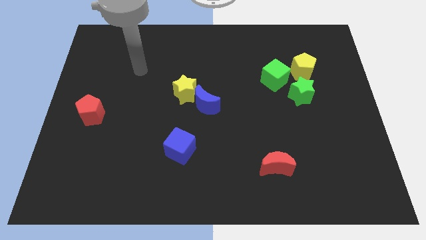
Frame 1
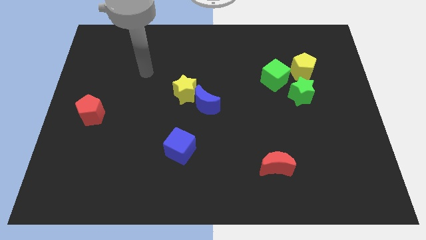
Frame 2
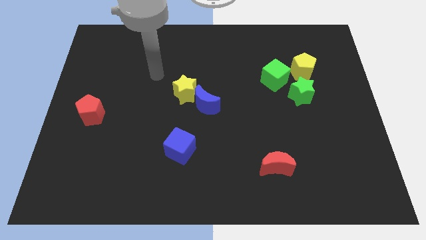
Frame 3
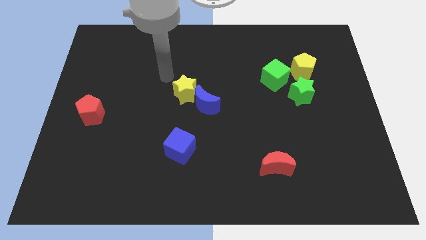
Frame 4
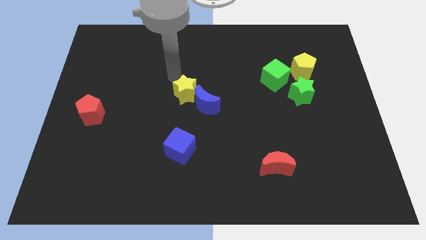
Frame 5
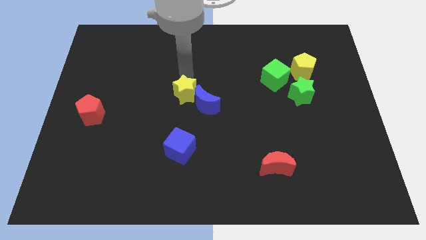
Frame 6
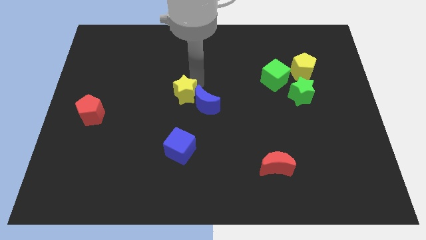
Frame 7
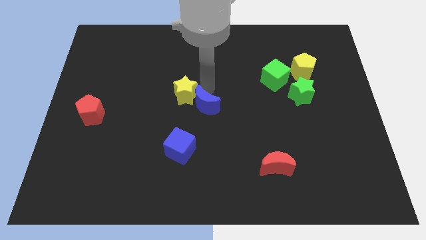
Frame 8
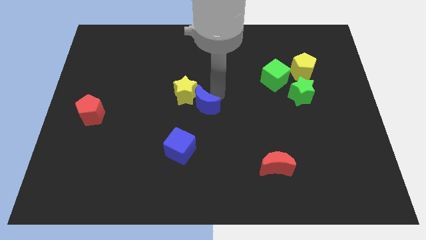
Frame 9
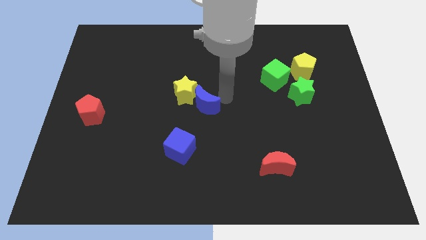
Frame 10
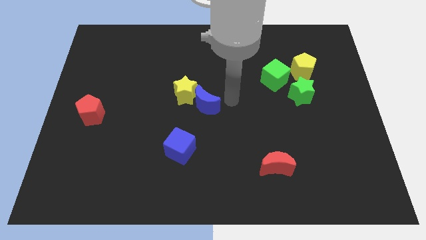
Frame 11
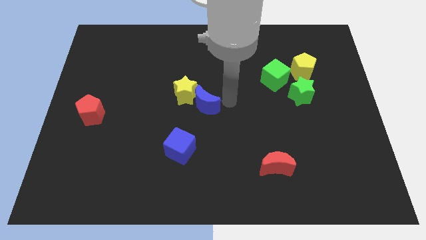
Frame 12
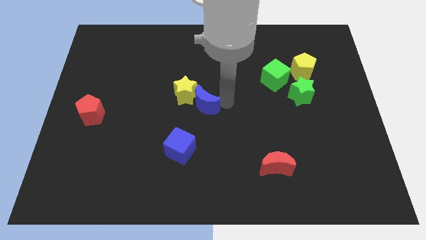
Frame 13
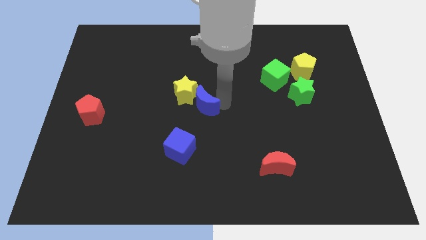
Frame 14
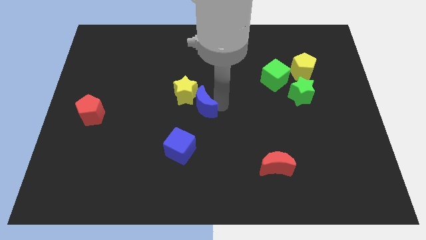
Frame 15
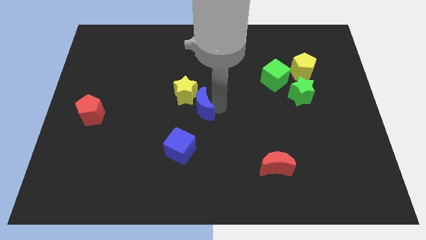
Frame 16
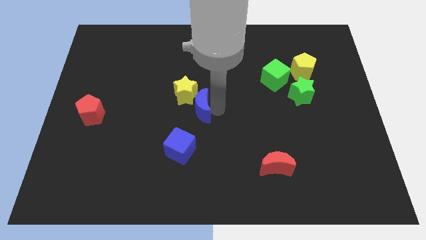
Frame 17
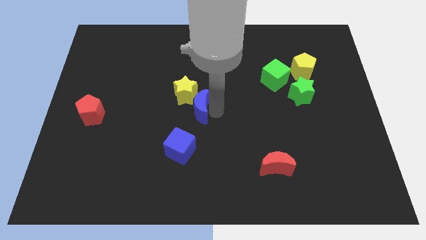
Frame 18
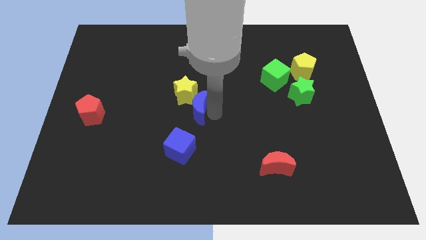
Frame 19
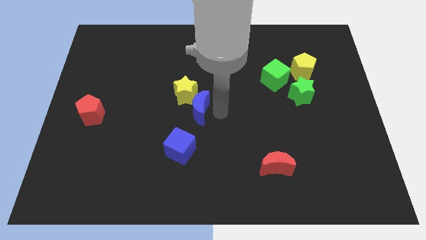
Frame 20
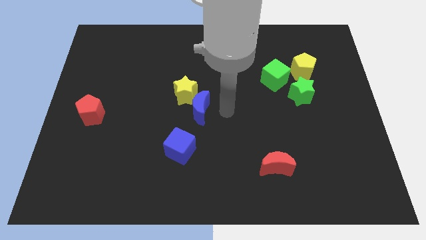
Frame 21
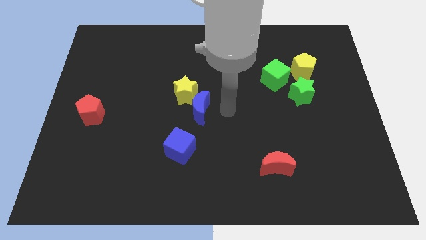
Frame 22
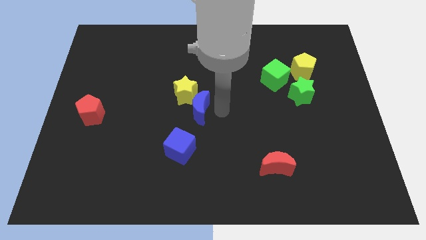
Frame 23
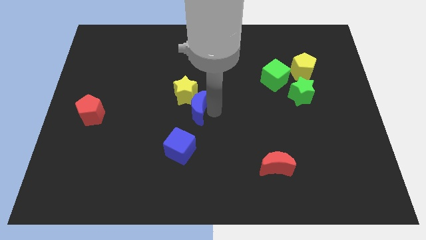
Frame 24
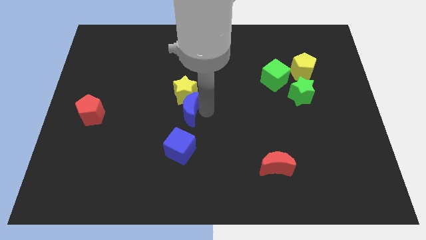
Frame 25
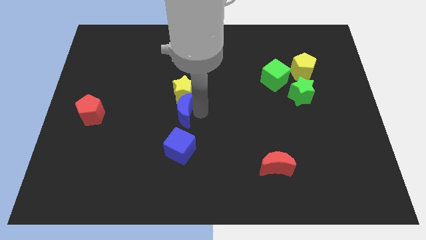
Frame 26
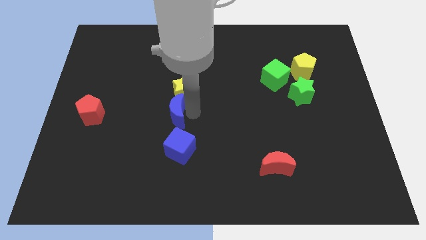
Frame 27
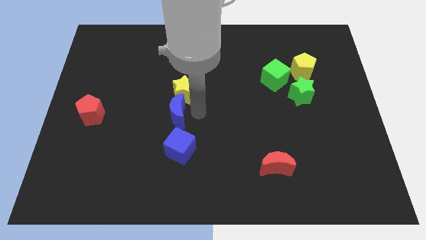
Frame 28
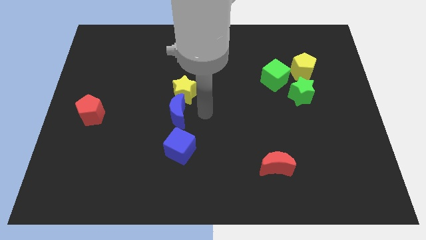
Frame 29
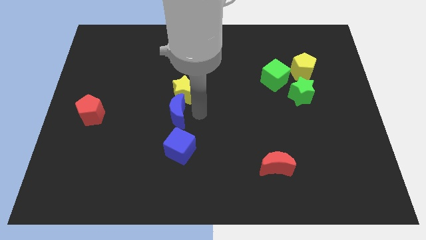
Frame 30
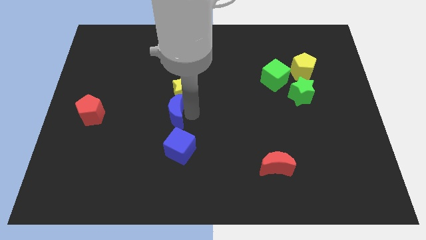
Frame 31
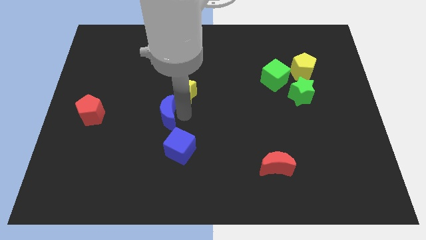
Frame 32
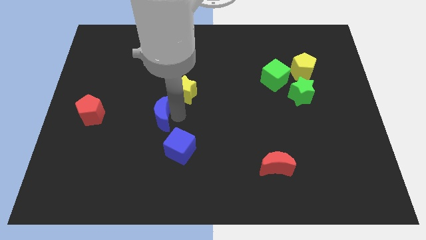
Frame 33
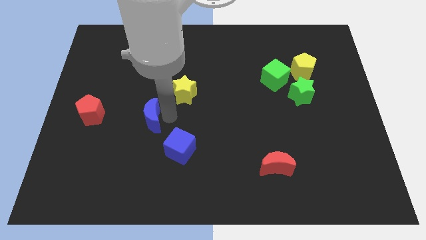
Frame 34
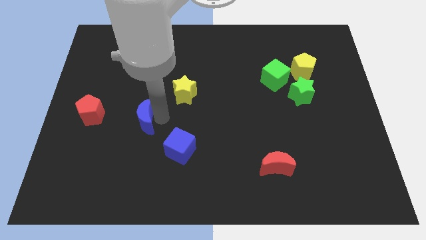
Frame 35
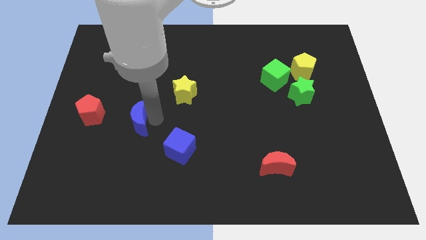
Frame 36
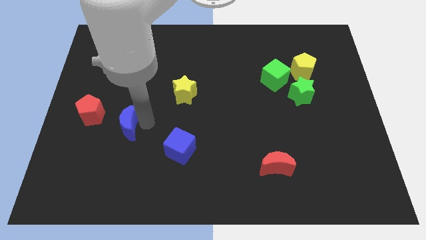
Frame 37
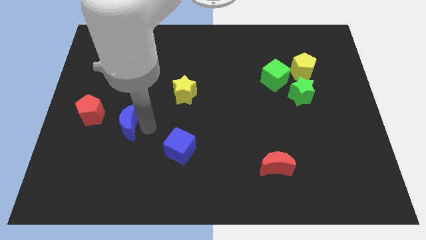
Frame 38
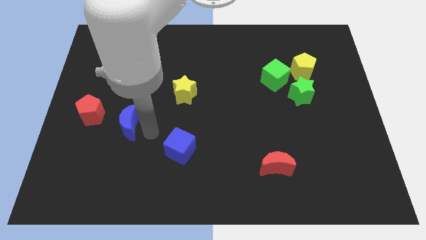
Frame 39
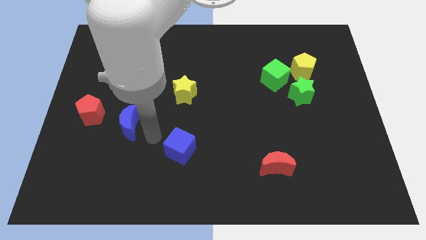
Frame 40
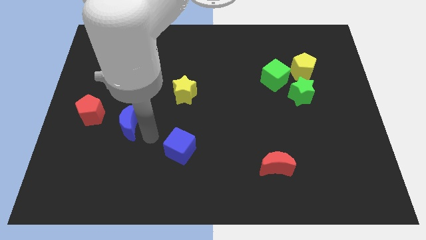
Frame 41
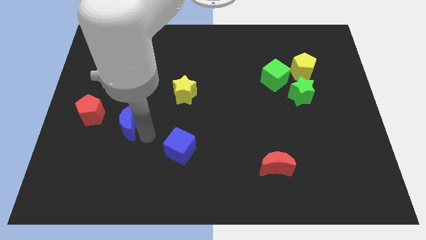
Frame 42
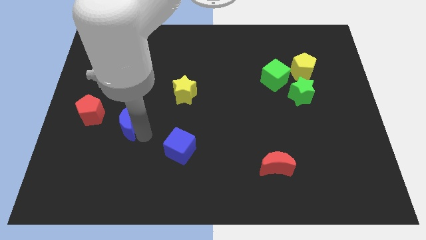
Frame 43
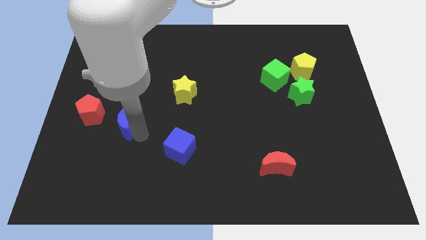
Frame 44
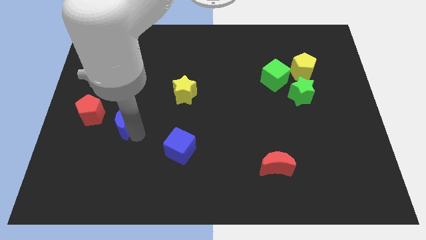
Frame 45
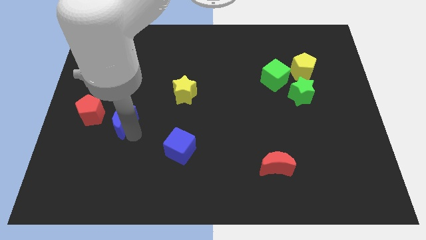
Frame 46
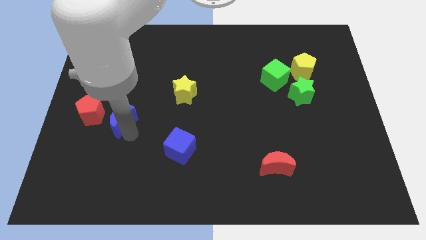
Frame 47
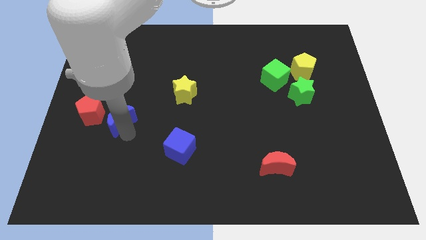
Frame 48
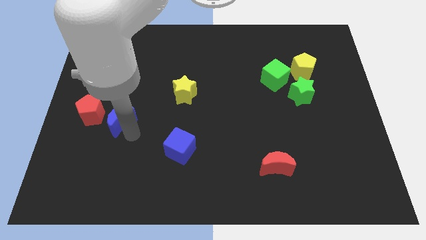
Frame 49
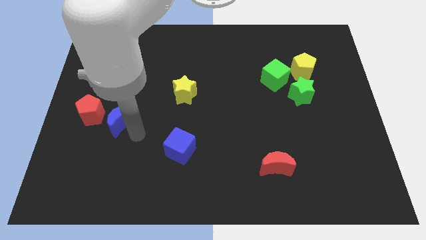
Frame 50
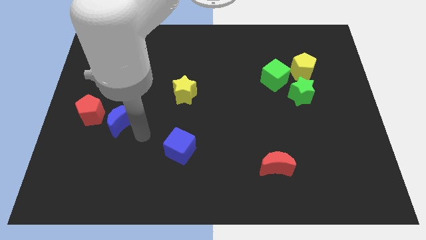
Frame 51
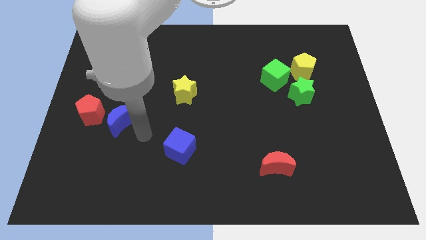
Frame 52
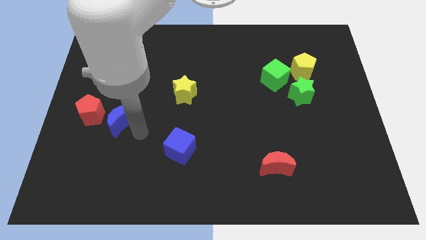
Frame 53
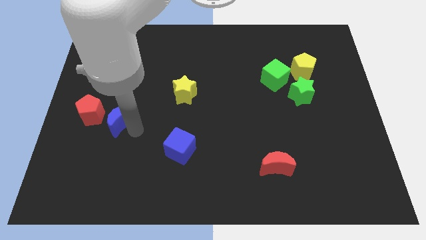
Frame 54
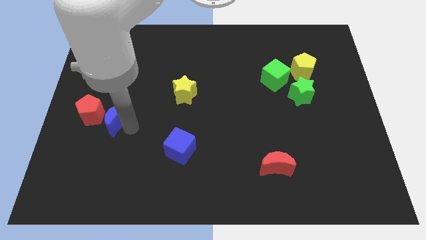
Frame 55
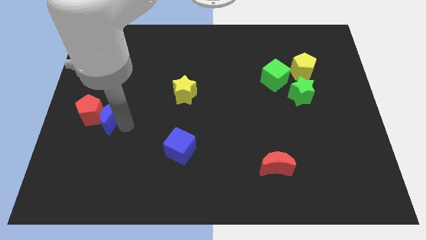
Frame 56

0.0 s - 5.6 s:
move the blue moon to the red pentagon

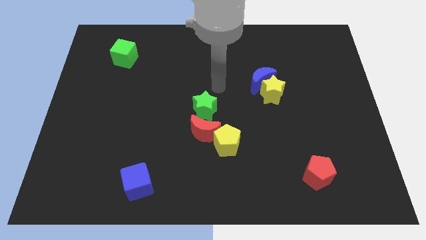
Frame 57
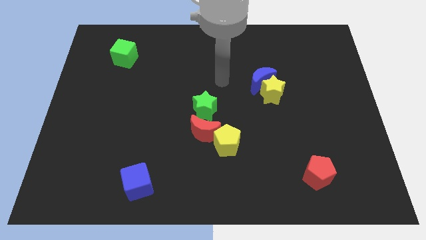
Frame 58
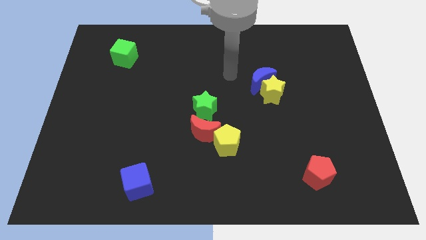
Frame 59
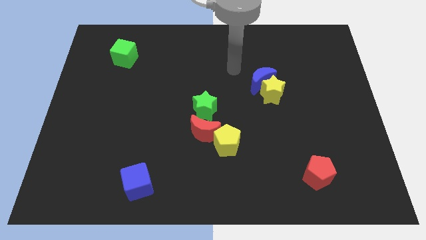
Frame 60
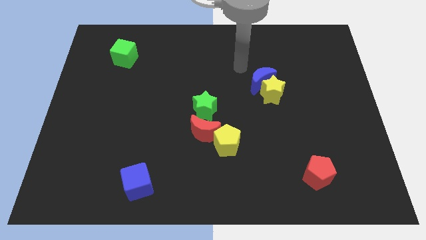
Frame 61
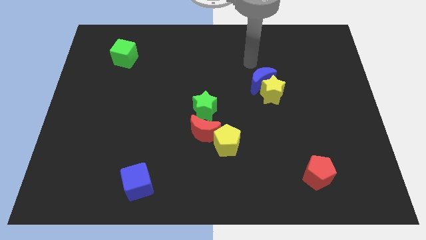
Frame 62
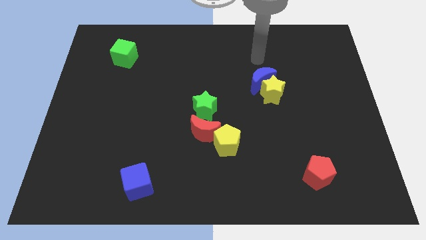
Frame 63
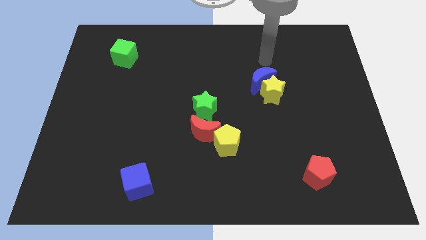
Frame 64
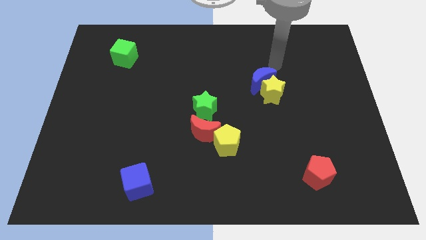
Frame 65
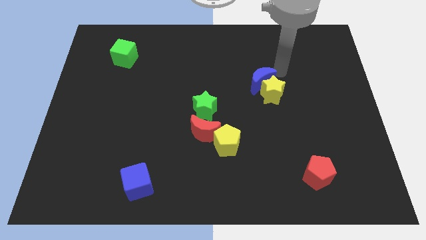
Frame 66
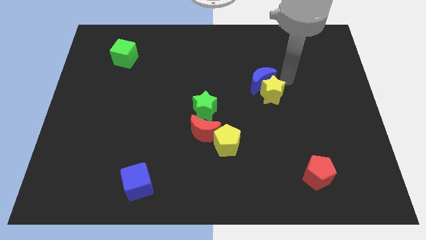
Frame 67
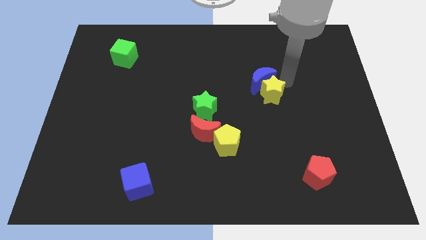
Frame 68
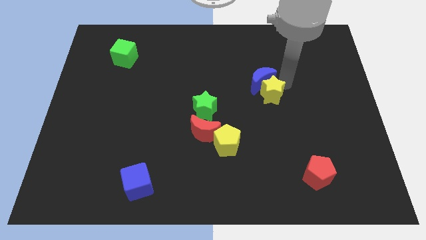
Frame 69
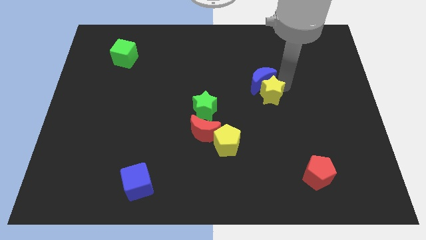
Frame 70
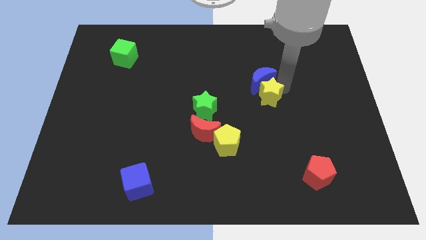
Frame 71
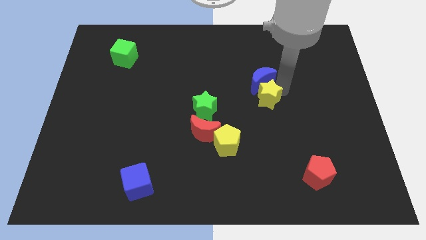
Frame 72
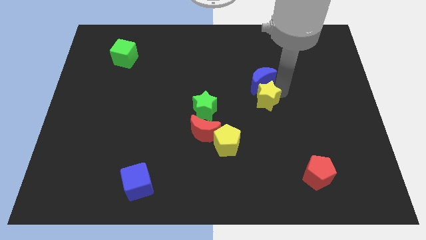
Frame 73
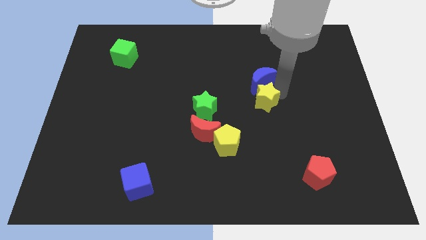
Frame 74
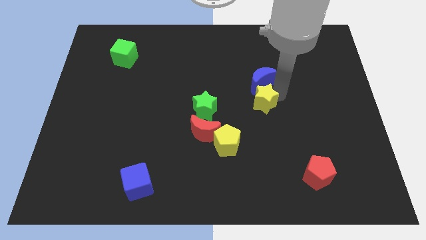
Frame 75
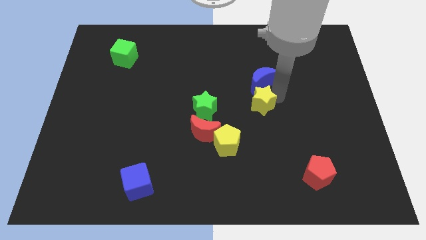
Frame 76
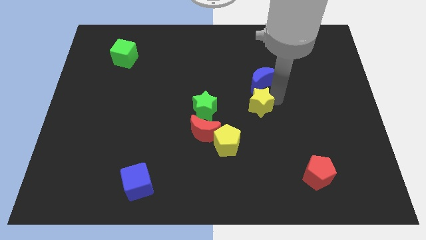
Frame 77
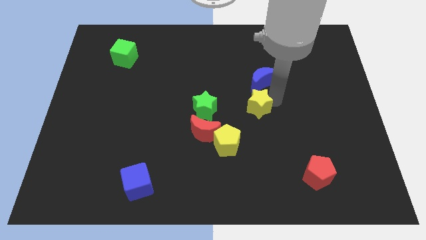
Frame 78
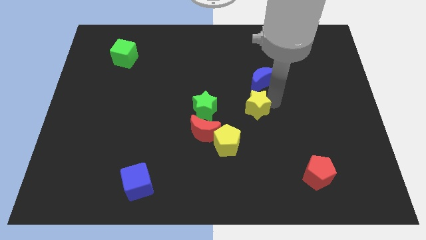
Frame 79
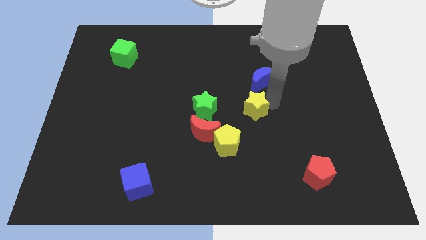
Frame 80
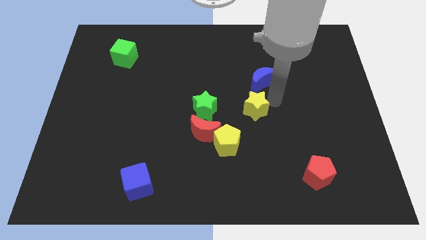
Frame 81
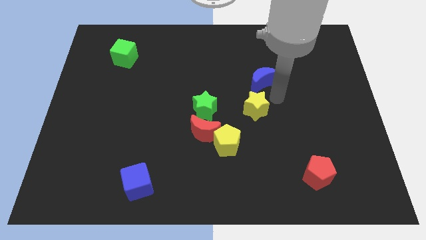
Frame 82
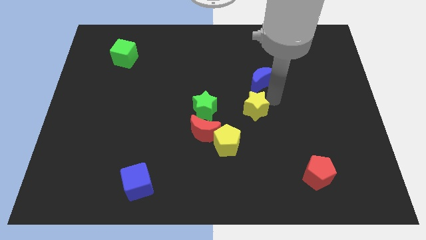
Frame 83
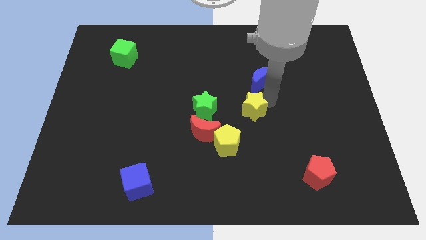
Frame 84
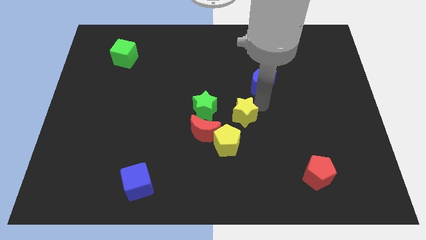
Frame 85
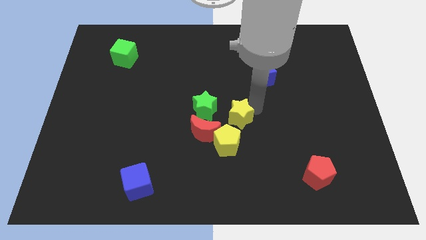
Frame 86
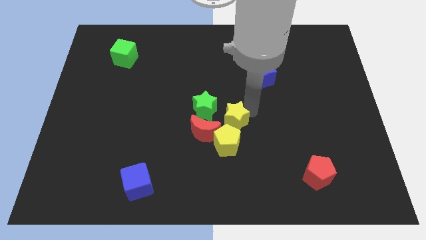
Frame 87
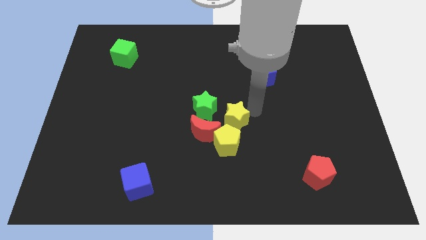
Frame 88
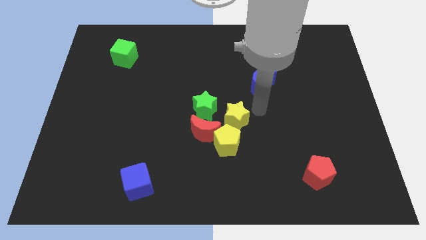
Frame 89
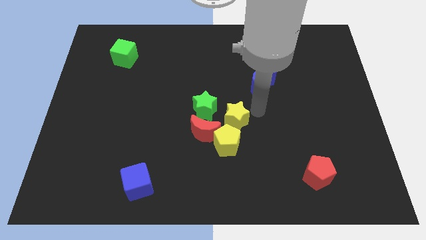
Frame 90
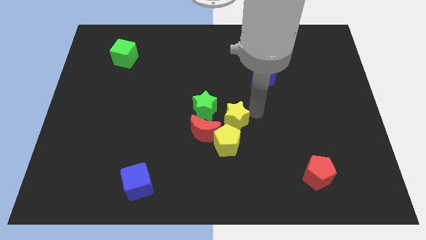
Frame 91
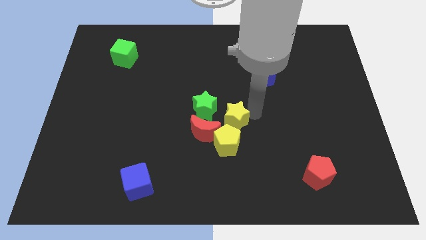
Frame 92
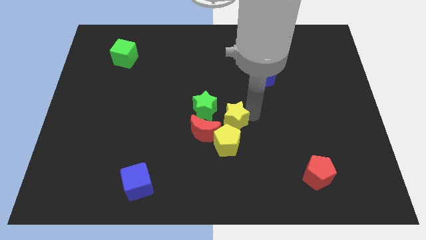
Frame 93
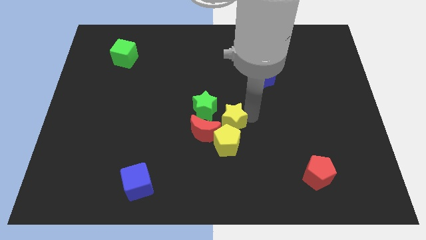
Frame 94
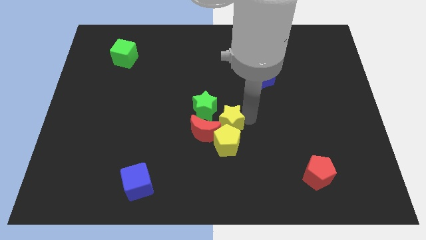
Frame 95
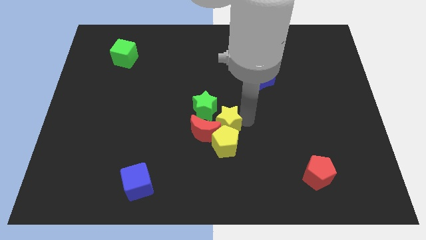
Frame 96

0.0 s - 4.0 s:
slide the yellow star close to the red moon
